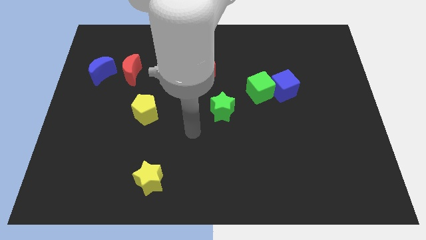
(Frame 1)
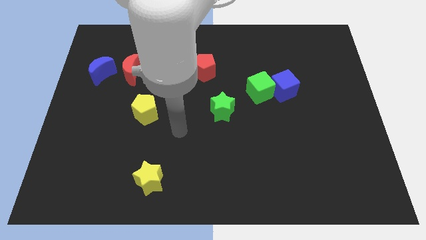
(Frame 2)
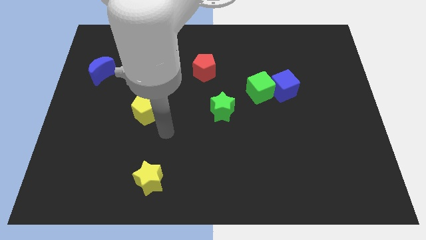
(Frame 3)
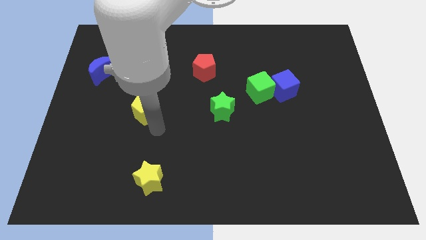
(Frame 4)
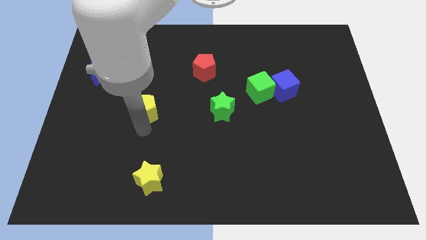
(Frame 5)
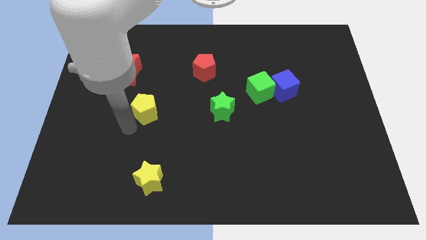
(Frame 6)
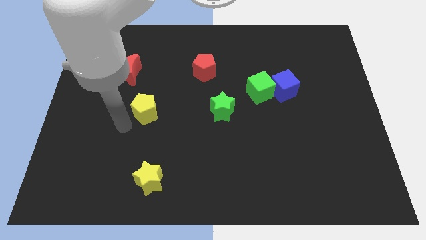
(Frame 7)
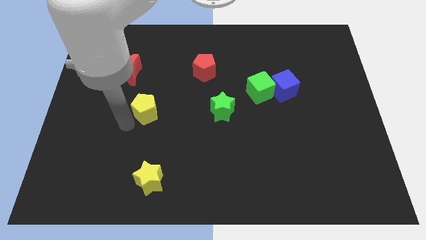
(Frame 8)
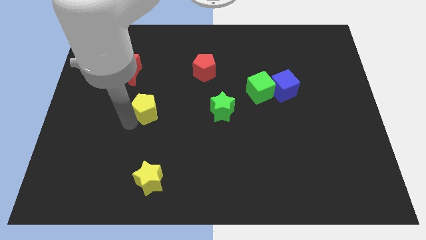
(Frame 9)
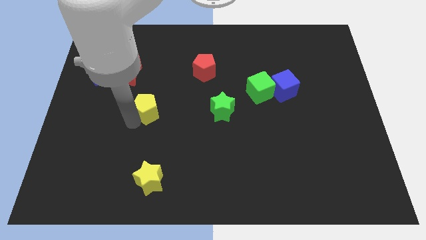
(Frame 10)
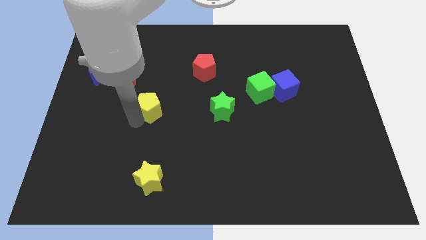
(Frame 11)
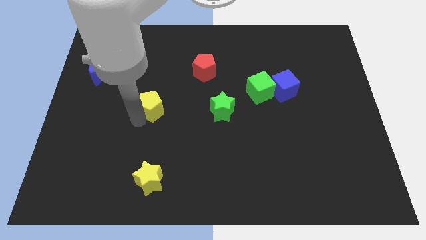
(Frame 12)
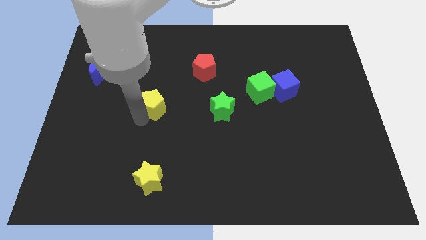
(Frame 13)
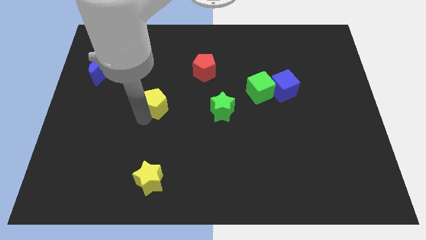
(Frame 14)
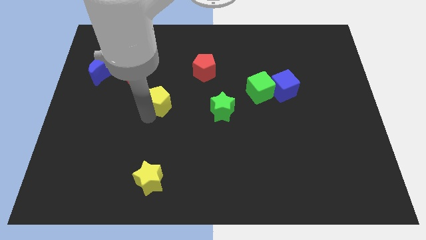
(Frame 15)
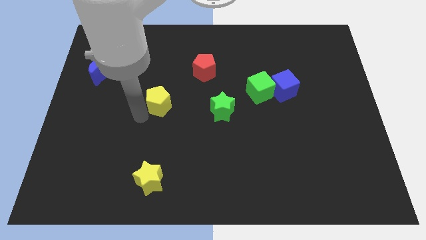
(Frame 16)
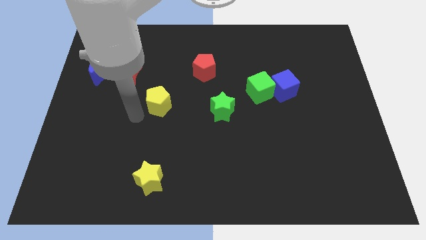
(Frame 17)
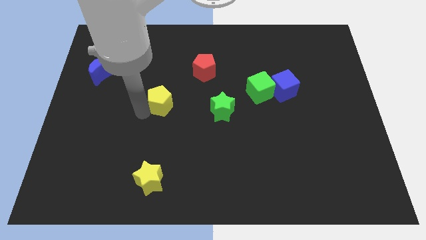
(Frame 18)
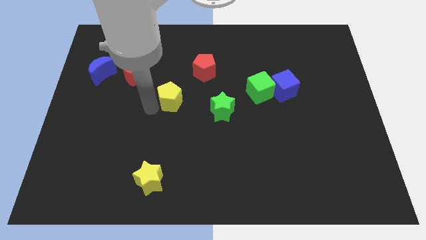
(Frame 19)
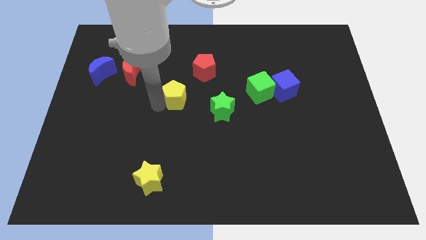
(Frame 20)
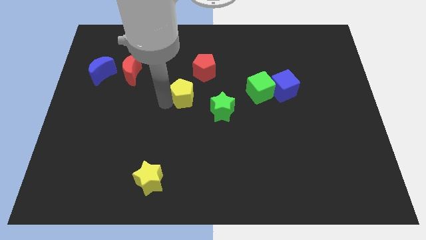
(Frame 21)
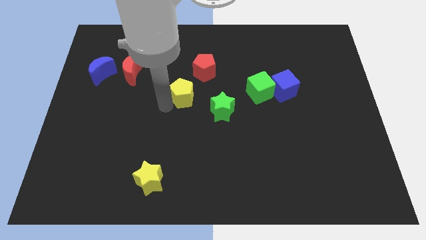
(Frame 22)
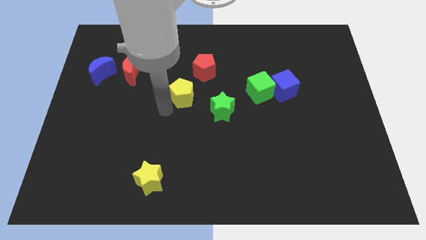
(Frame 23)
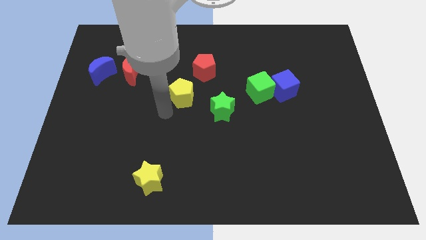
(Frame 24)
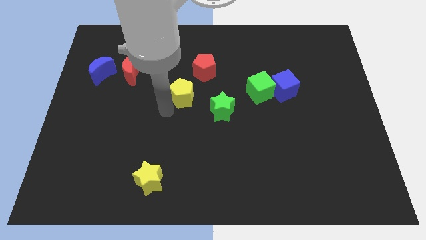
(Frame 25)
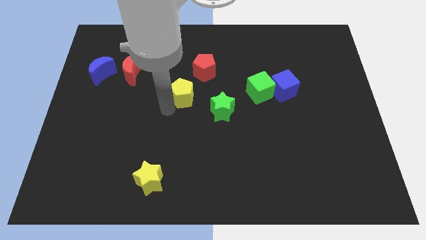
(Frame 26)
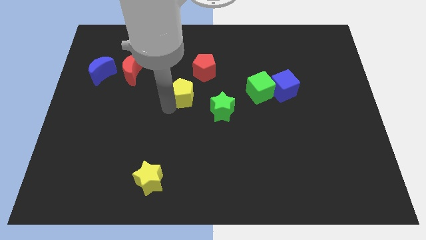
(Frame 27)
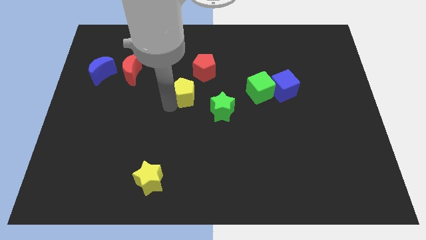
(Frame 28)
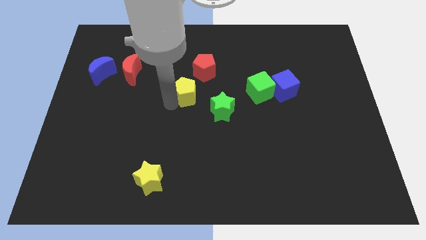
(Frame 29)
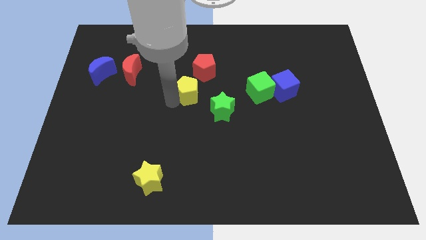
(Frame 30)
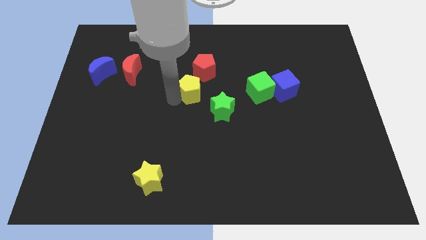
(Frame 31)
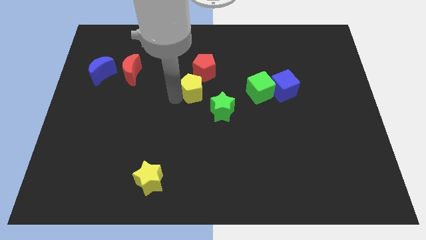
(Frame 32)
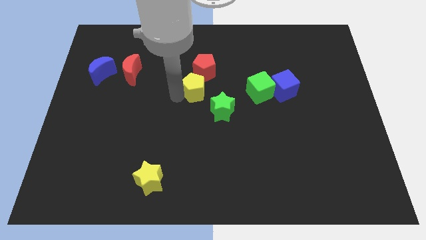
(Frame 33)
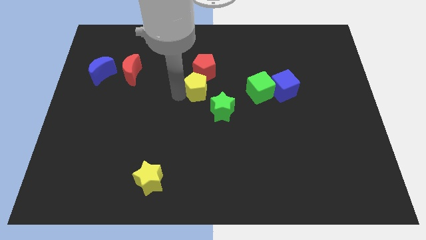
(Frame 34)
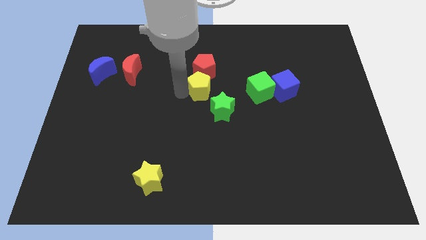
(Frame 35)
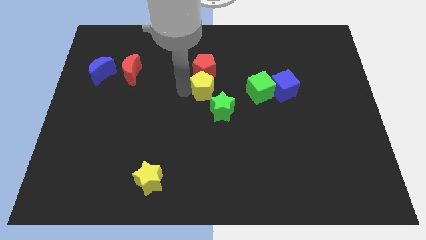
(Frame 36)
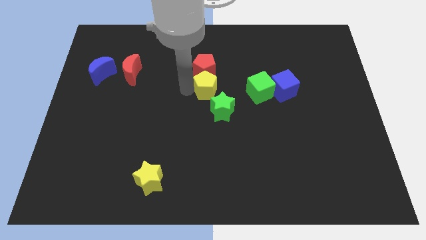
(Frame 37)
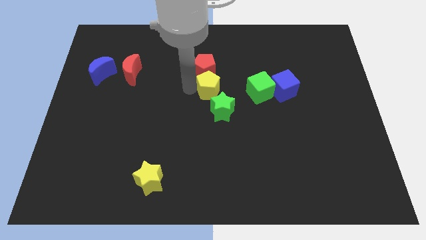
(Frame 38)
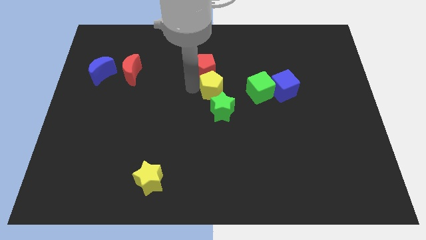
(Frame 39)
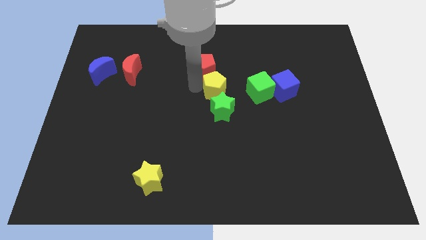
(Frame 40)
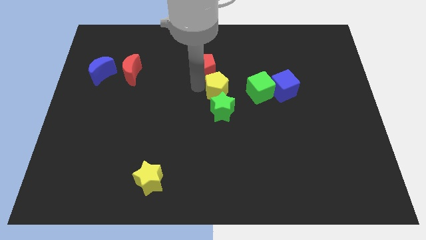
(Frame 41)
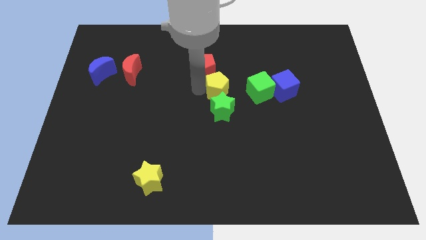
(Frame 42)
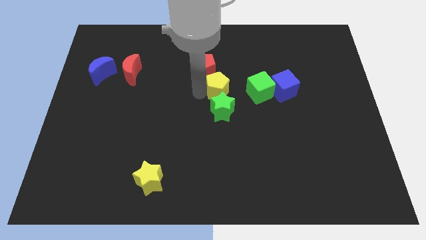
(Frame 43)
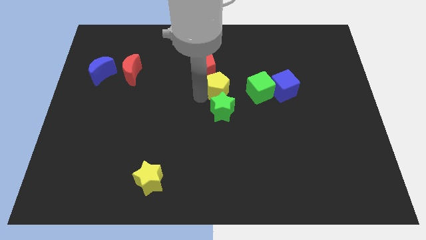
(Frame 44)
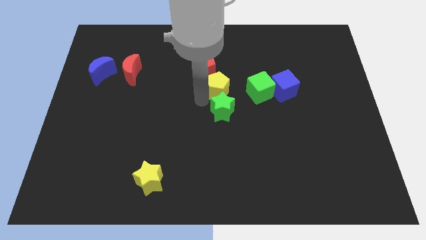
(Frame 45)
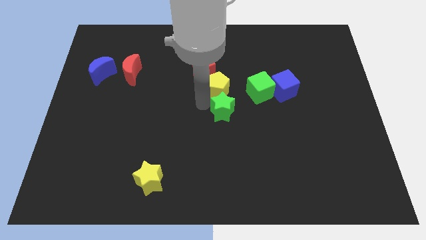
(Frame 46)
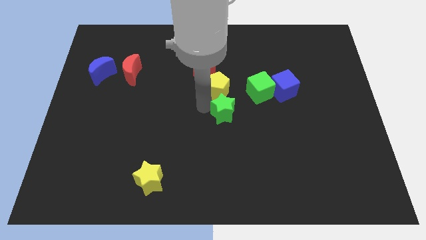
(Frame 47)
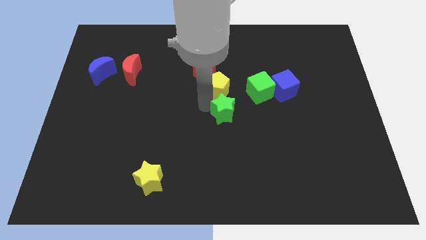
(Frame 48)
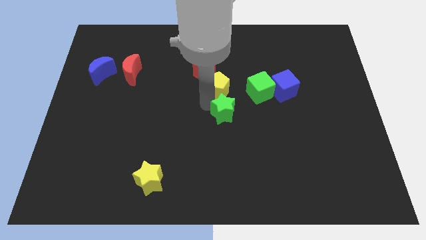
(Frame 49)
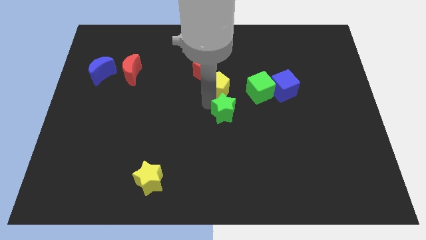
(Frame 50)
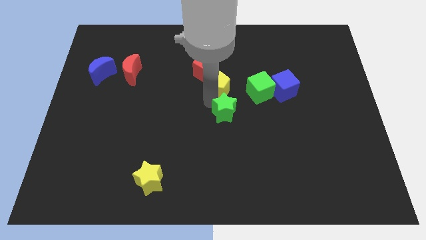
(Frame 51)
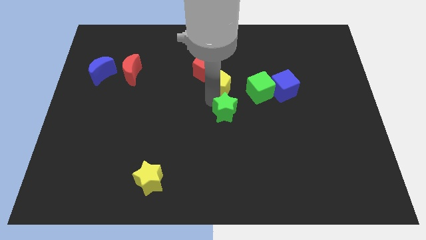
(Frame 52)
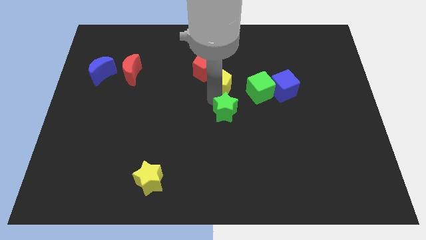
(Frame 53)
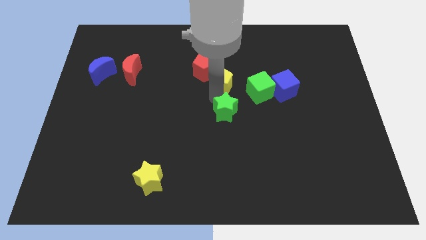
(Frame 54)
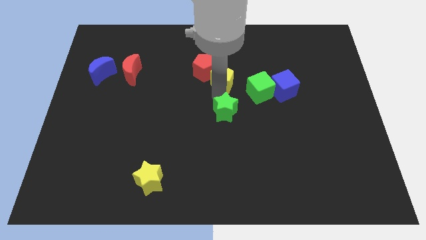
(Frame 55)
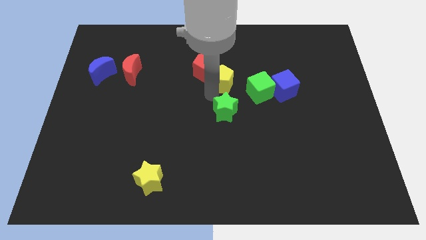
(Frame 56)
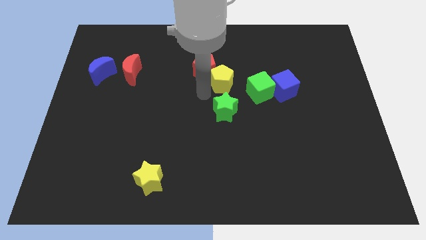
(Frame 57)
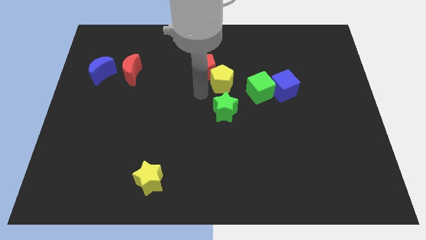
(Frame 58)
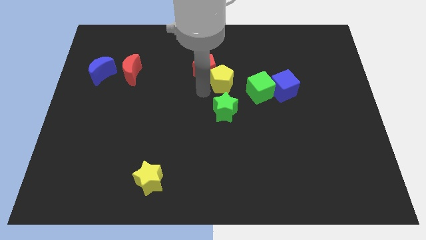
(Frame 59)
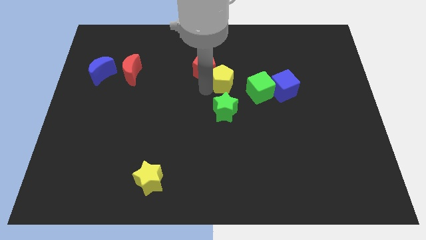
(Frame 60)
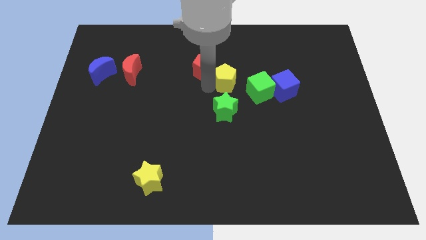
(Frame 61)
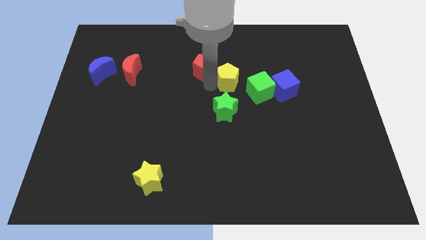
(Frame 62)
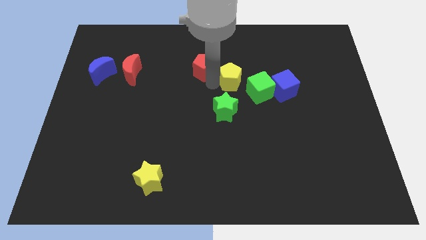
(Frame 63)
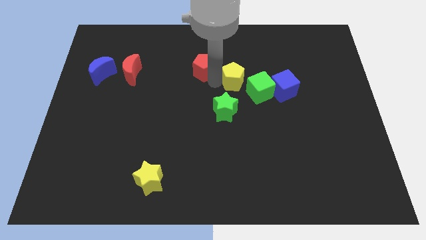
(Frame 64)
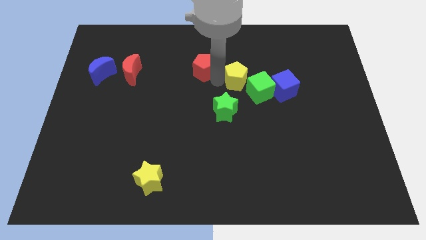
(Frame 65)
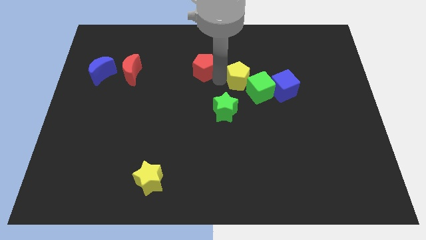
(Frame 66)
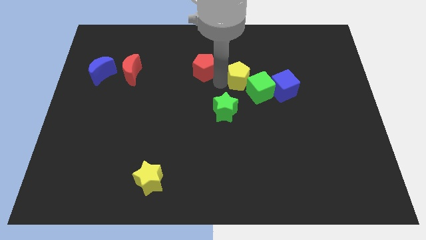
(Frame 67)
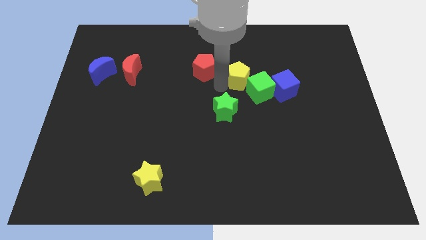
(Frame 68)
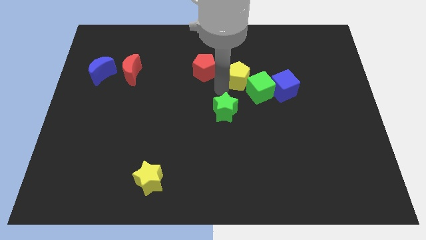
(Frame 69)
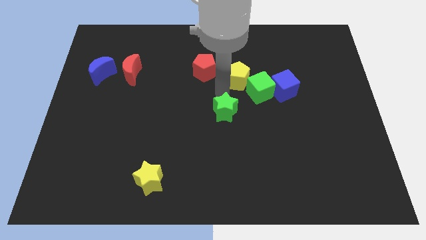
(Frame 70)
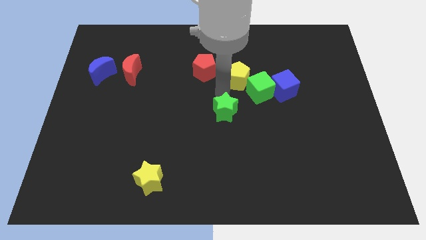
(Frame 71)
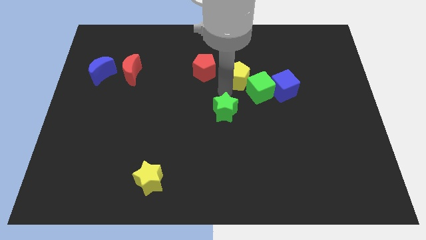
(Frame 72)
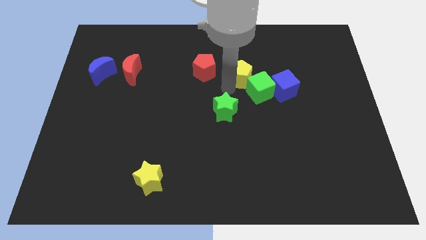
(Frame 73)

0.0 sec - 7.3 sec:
slide the yellow pentagon to the top of the green cube
